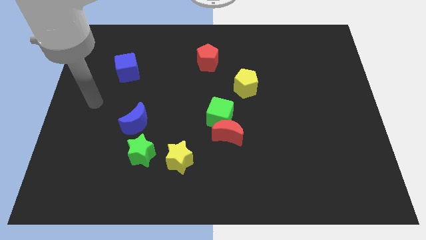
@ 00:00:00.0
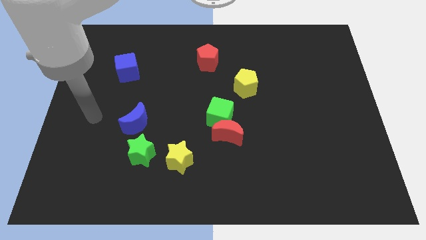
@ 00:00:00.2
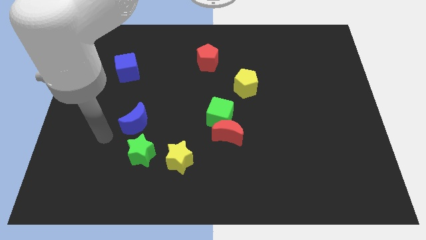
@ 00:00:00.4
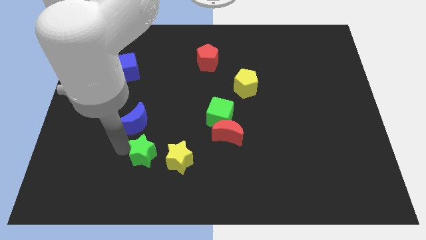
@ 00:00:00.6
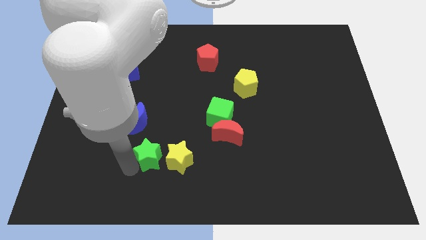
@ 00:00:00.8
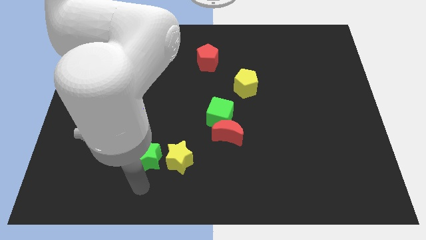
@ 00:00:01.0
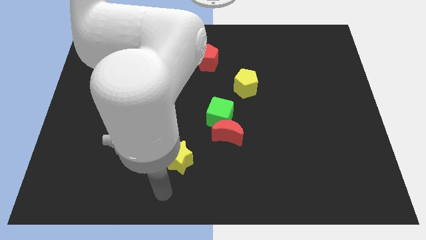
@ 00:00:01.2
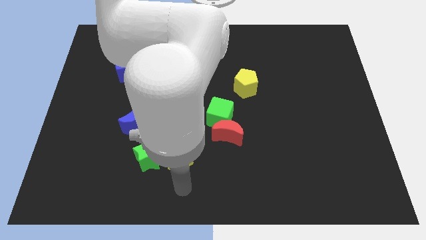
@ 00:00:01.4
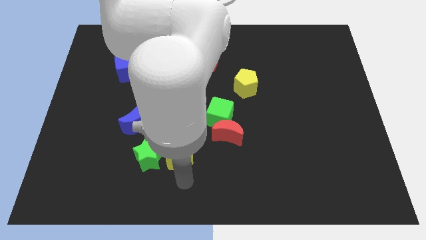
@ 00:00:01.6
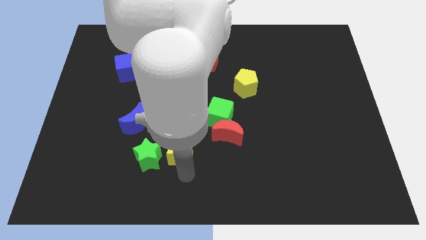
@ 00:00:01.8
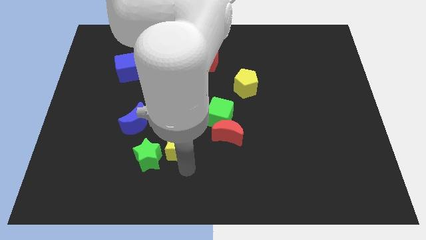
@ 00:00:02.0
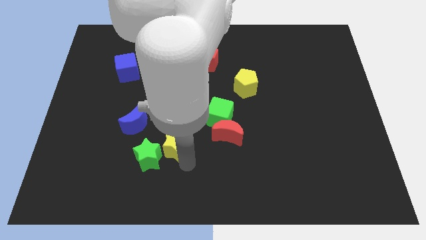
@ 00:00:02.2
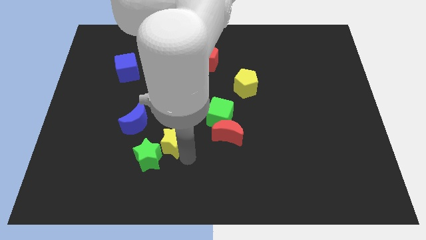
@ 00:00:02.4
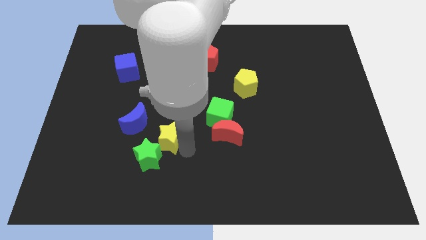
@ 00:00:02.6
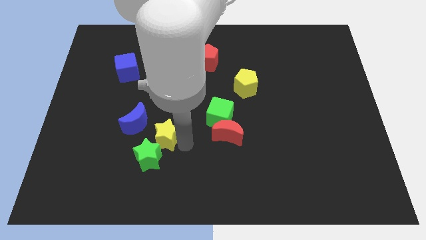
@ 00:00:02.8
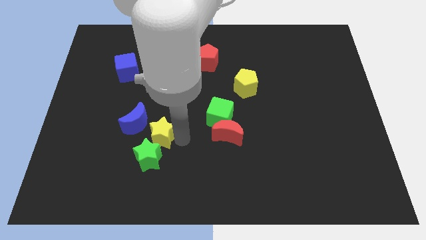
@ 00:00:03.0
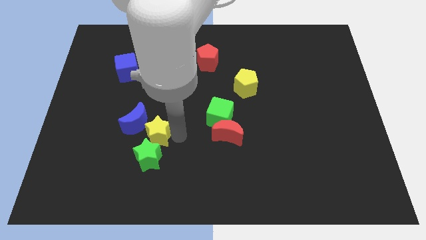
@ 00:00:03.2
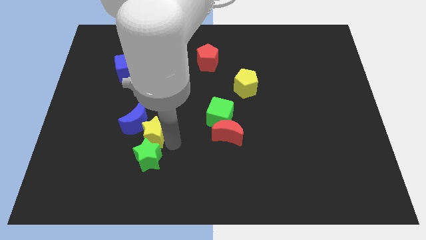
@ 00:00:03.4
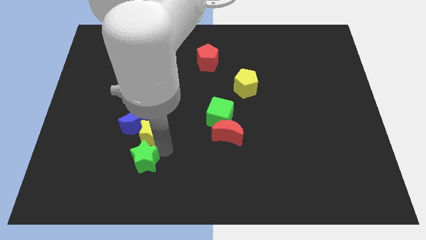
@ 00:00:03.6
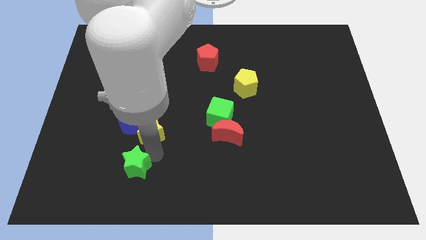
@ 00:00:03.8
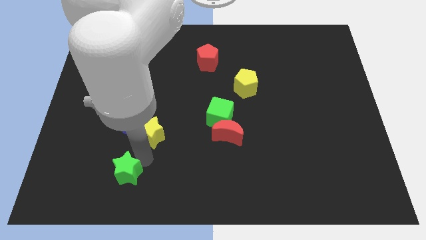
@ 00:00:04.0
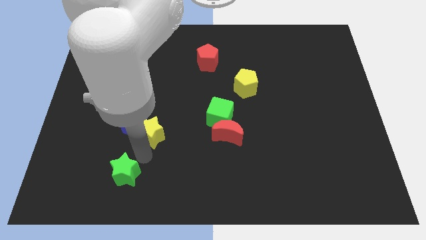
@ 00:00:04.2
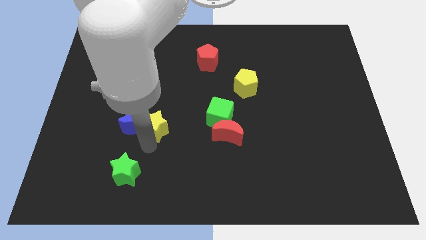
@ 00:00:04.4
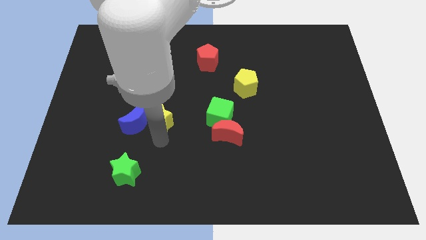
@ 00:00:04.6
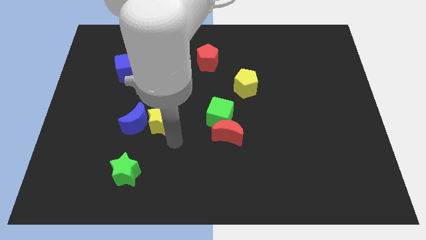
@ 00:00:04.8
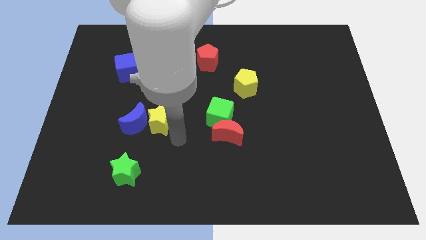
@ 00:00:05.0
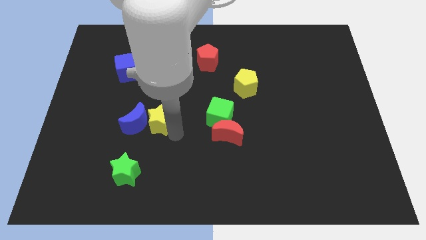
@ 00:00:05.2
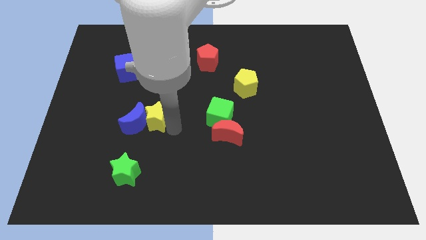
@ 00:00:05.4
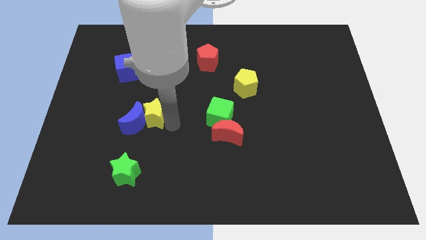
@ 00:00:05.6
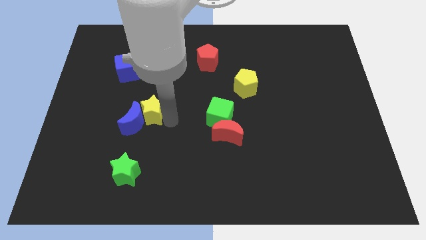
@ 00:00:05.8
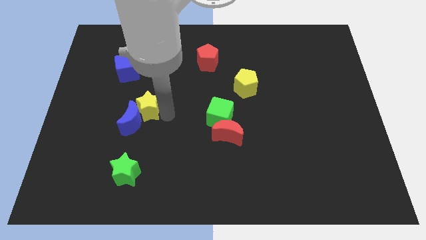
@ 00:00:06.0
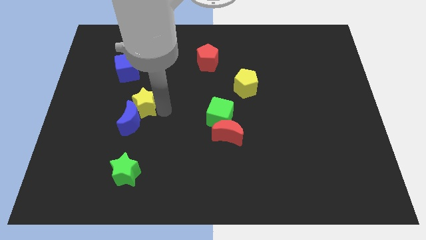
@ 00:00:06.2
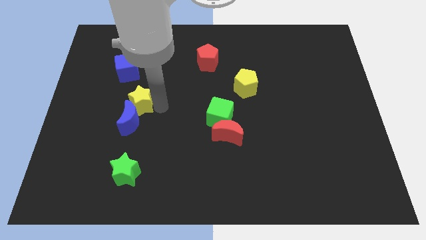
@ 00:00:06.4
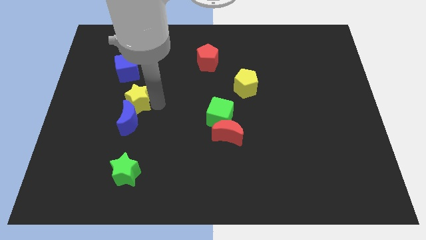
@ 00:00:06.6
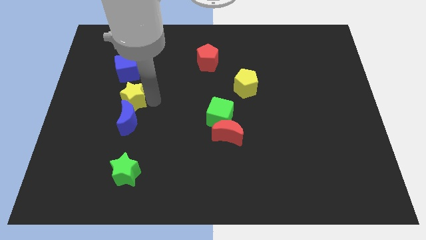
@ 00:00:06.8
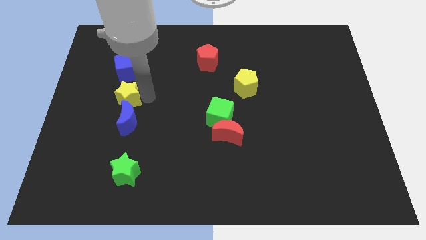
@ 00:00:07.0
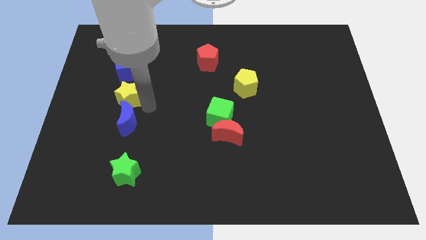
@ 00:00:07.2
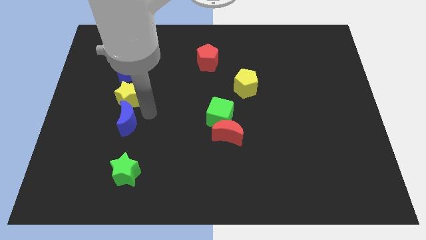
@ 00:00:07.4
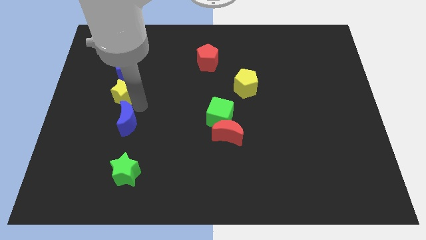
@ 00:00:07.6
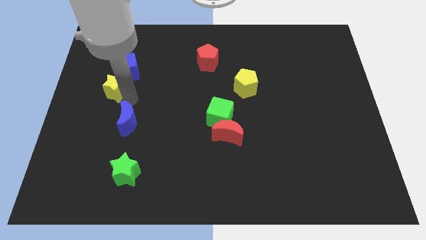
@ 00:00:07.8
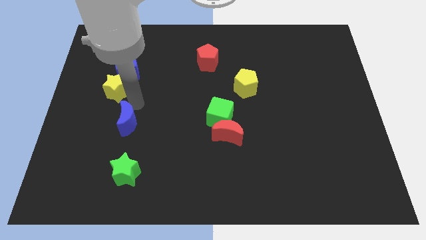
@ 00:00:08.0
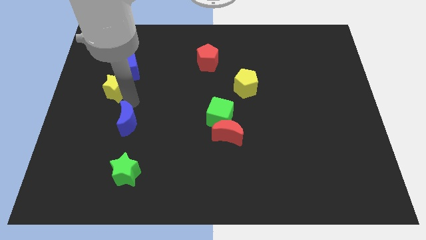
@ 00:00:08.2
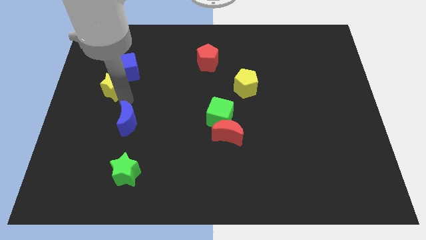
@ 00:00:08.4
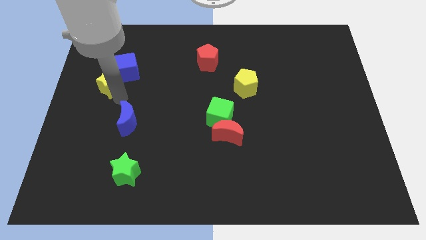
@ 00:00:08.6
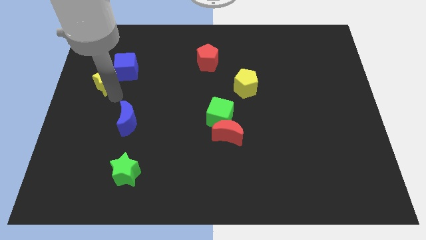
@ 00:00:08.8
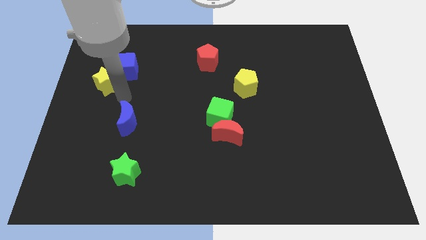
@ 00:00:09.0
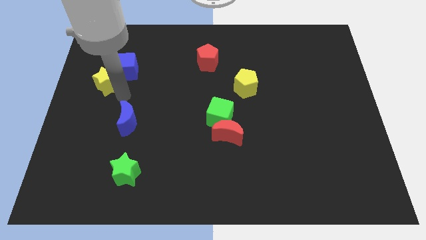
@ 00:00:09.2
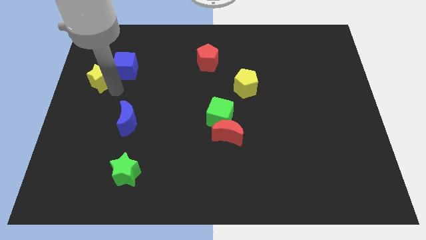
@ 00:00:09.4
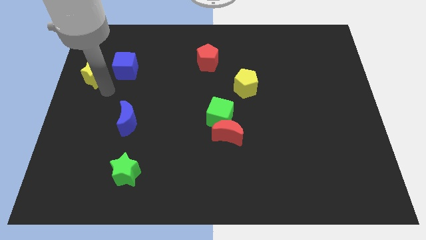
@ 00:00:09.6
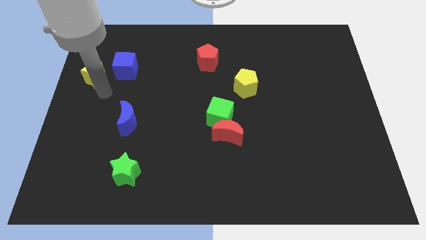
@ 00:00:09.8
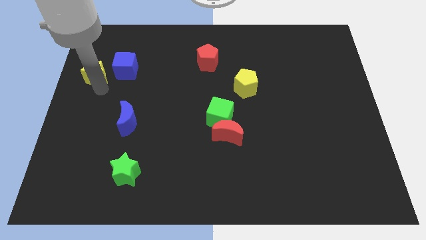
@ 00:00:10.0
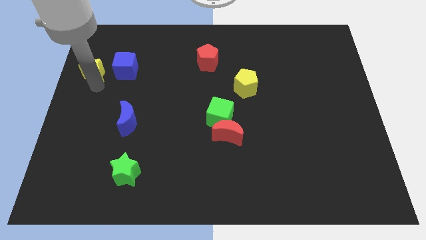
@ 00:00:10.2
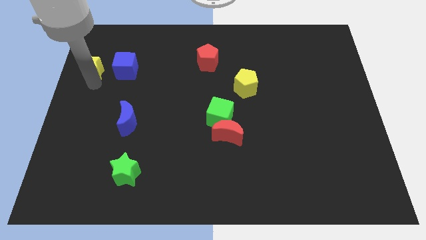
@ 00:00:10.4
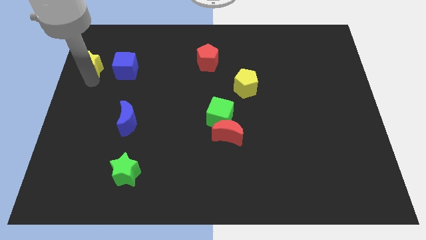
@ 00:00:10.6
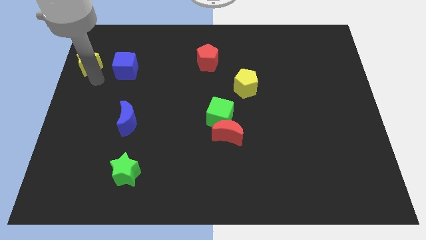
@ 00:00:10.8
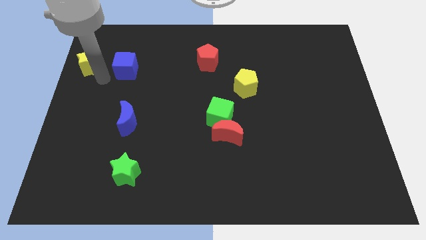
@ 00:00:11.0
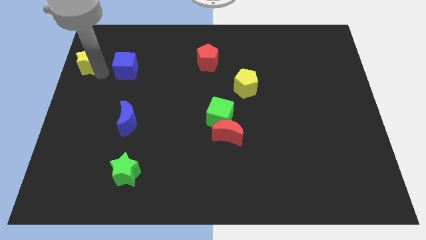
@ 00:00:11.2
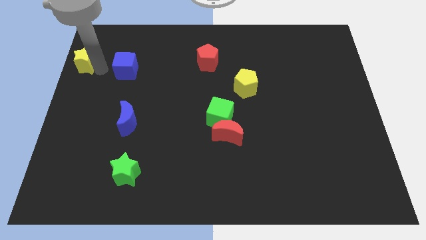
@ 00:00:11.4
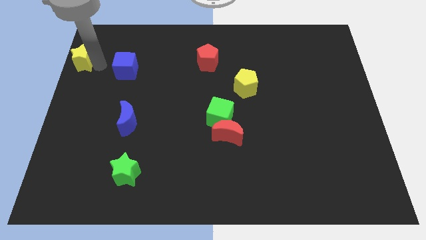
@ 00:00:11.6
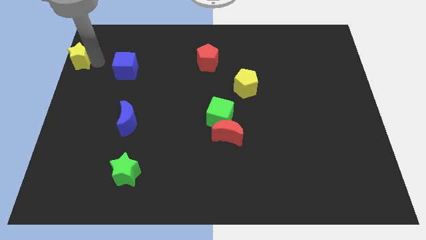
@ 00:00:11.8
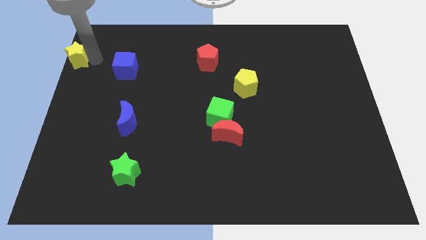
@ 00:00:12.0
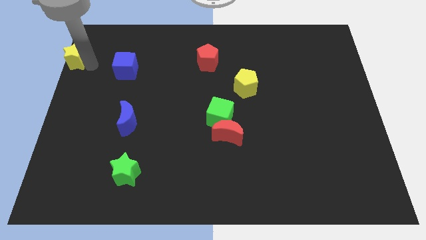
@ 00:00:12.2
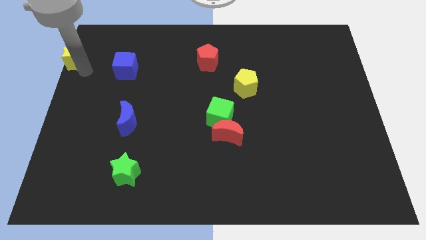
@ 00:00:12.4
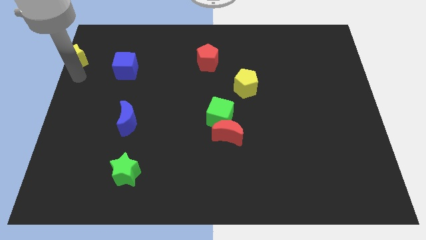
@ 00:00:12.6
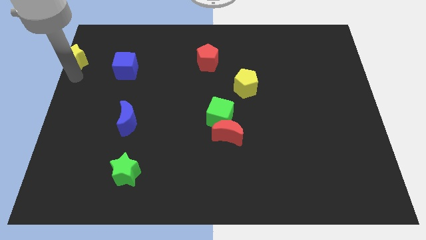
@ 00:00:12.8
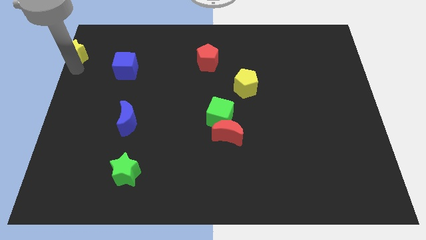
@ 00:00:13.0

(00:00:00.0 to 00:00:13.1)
put the yellow star to the top left of the board

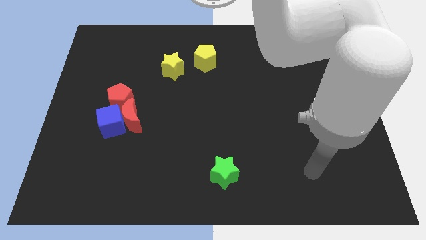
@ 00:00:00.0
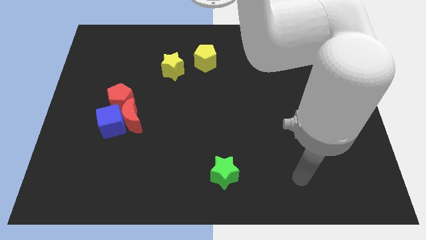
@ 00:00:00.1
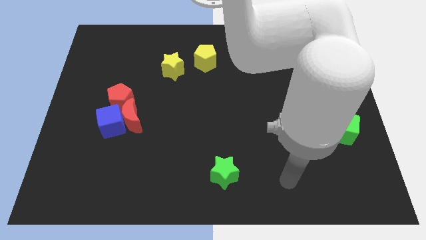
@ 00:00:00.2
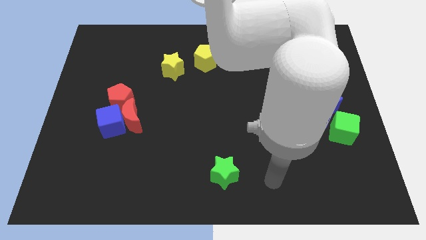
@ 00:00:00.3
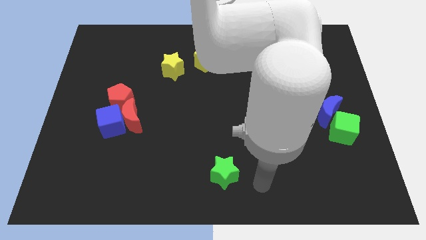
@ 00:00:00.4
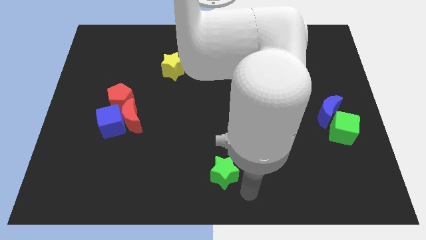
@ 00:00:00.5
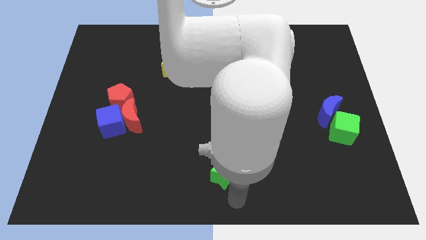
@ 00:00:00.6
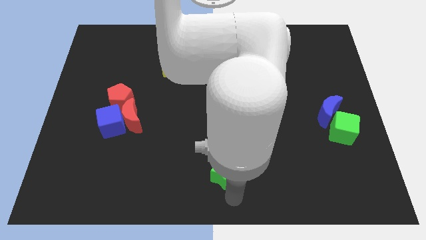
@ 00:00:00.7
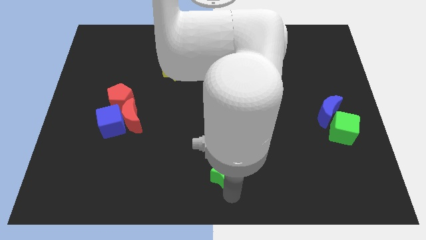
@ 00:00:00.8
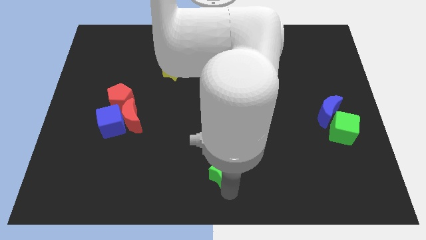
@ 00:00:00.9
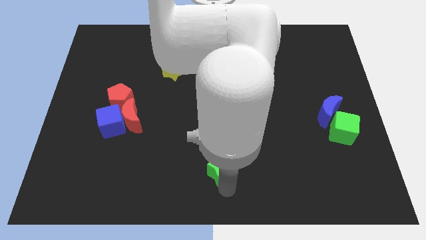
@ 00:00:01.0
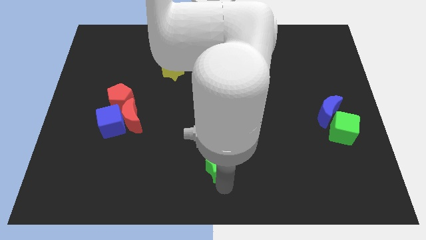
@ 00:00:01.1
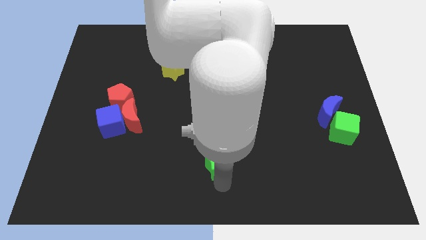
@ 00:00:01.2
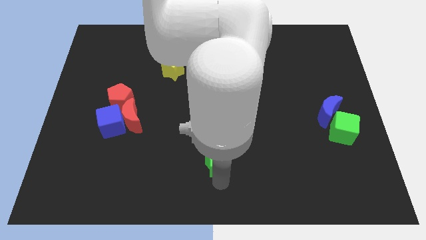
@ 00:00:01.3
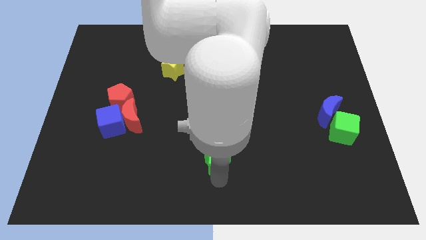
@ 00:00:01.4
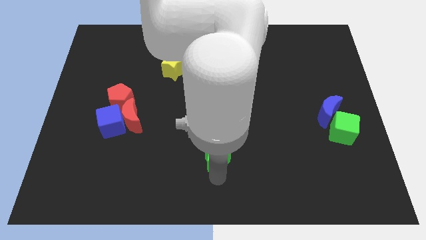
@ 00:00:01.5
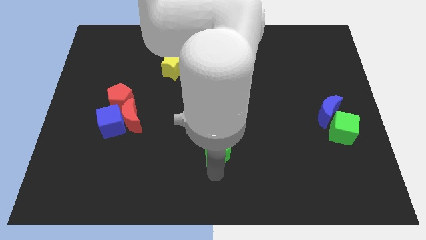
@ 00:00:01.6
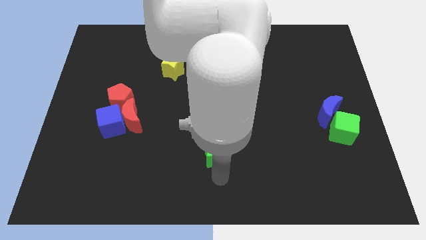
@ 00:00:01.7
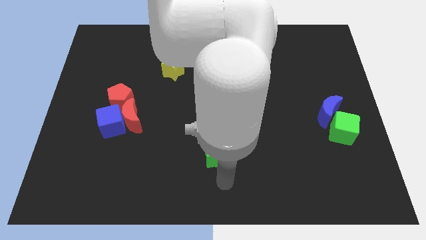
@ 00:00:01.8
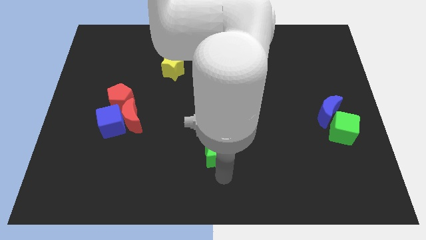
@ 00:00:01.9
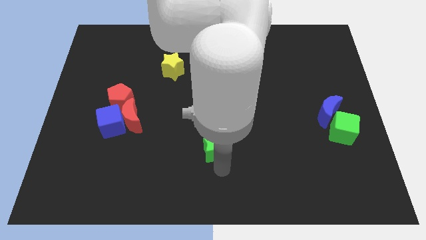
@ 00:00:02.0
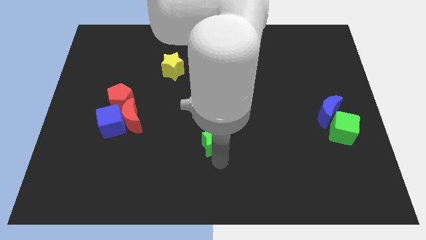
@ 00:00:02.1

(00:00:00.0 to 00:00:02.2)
put the green star to the center of the board
